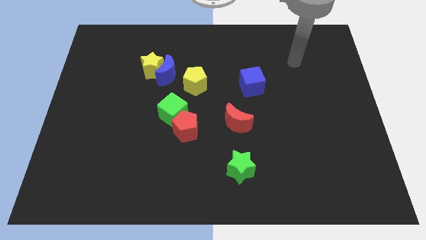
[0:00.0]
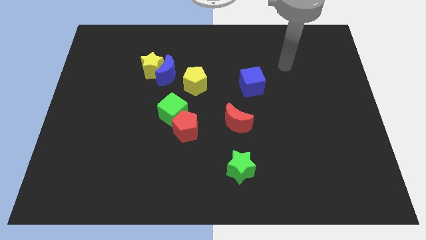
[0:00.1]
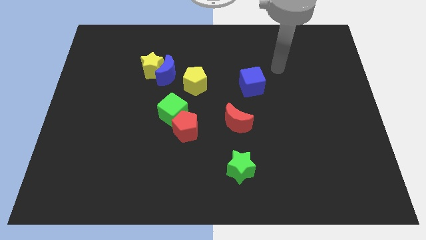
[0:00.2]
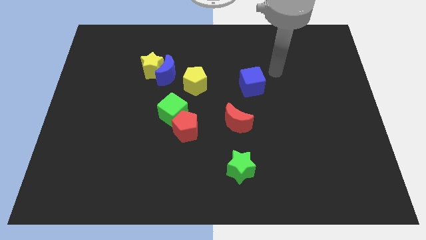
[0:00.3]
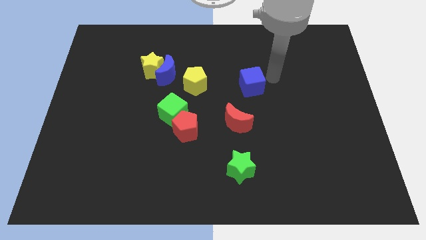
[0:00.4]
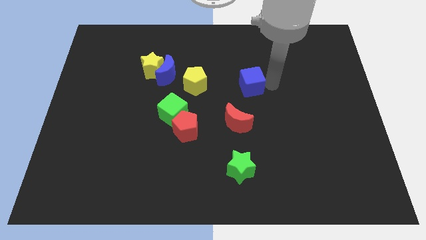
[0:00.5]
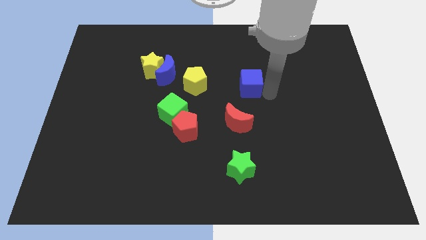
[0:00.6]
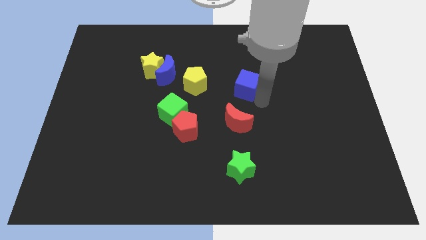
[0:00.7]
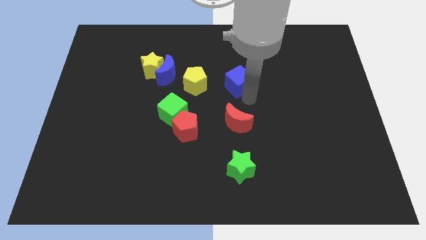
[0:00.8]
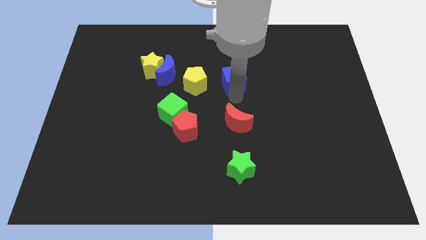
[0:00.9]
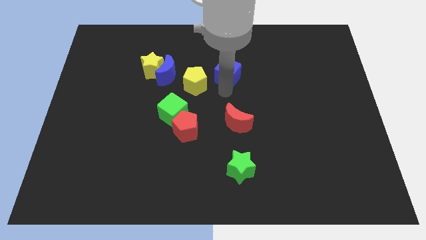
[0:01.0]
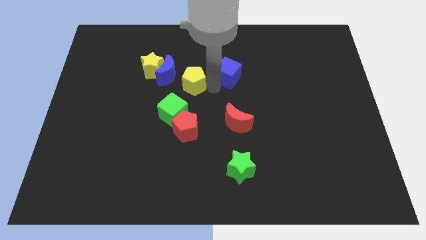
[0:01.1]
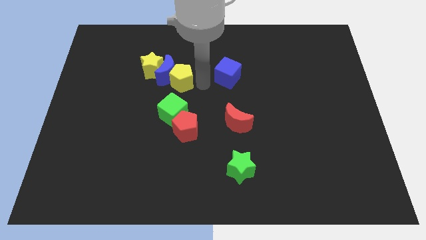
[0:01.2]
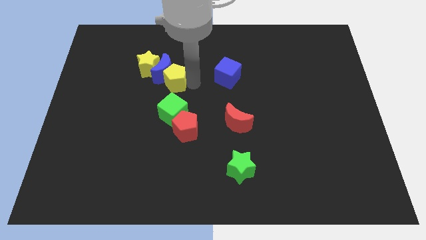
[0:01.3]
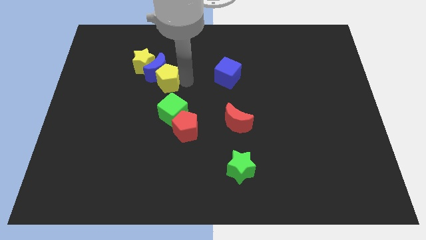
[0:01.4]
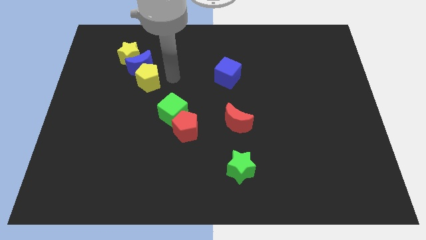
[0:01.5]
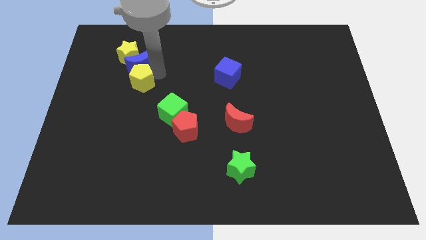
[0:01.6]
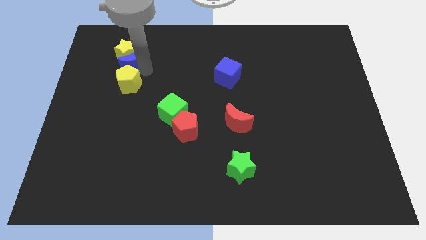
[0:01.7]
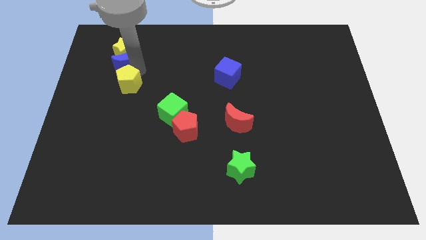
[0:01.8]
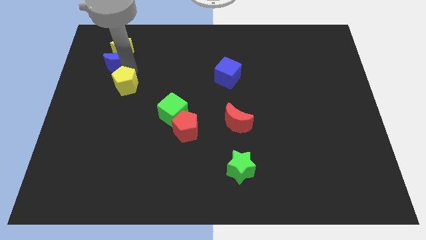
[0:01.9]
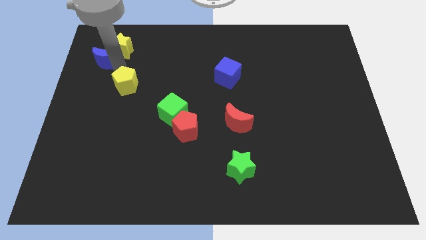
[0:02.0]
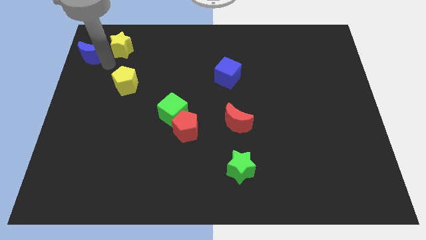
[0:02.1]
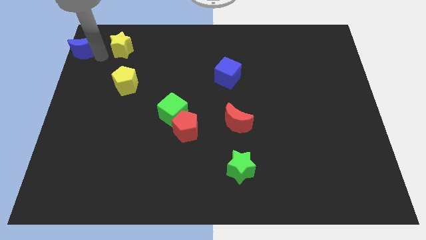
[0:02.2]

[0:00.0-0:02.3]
separate the yellow star from the blue moon

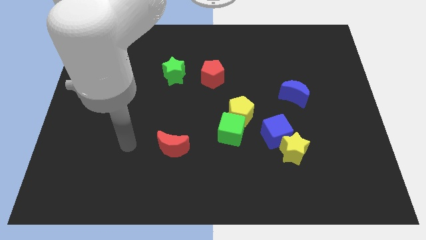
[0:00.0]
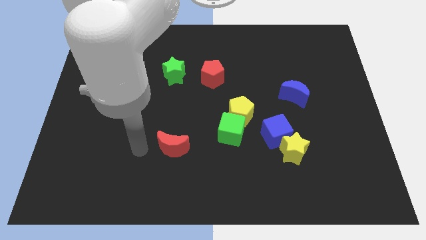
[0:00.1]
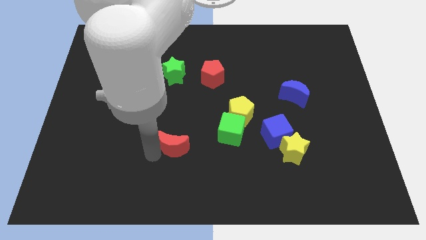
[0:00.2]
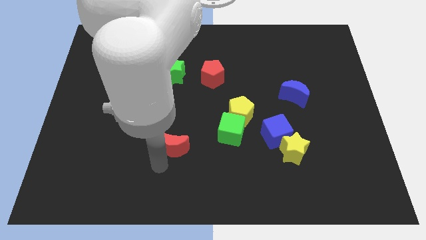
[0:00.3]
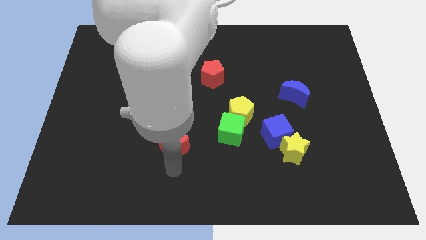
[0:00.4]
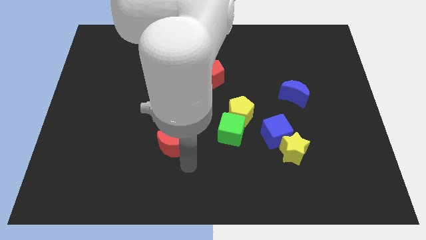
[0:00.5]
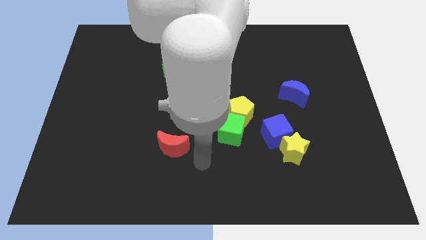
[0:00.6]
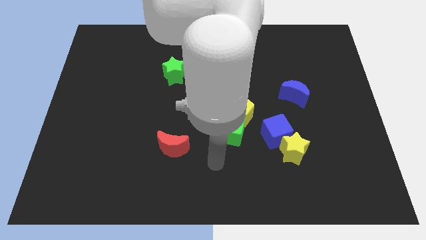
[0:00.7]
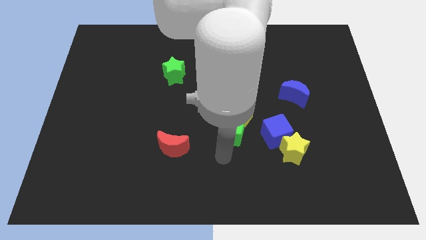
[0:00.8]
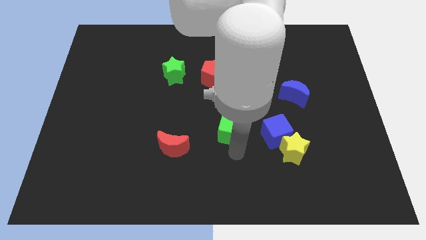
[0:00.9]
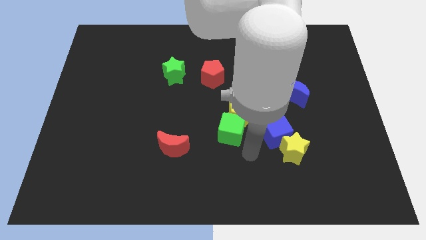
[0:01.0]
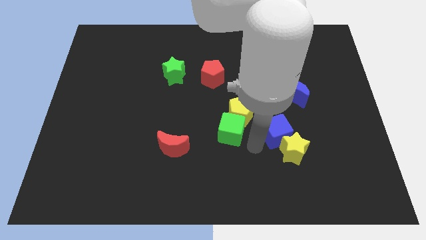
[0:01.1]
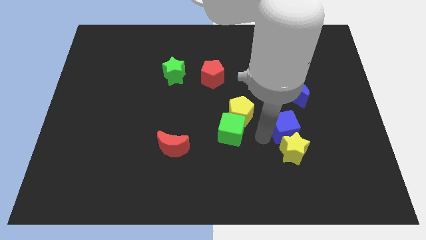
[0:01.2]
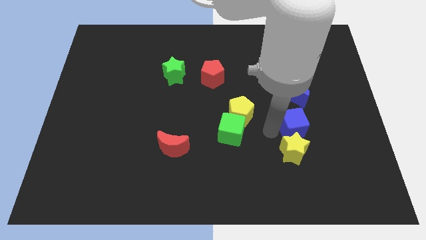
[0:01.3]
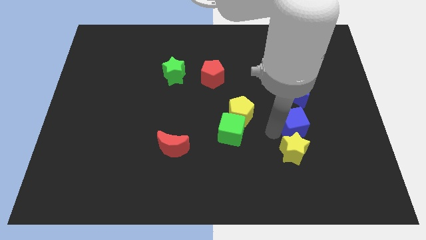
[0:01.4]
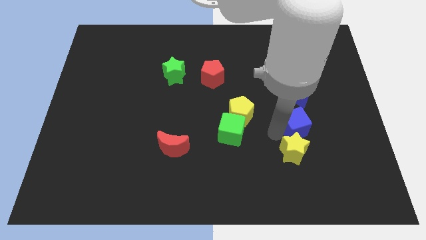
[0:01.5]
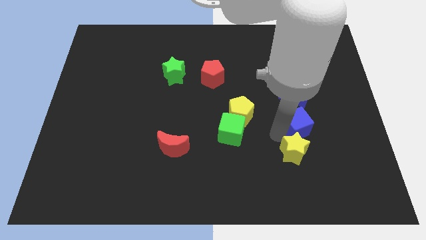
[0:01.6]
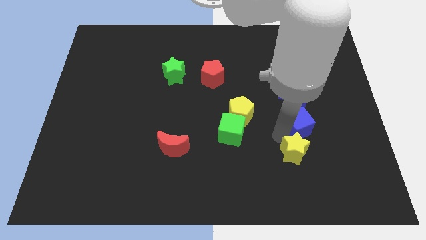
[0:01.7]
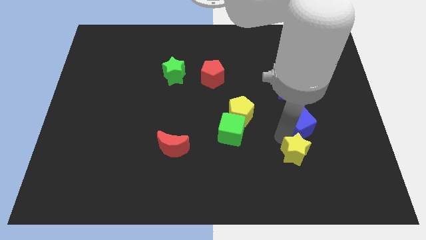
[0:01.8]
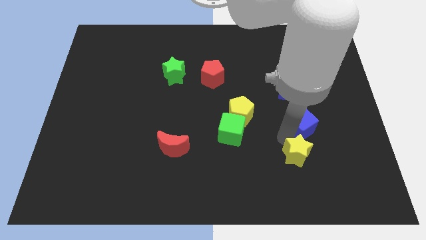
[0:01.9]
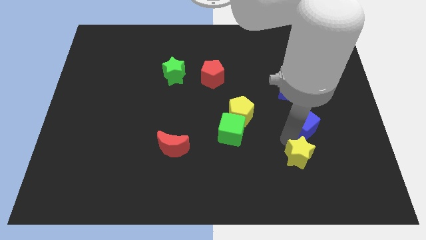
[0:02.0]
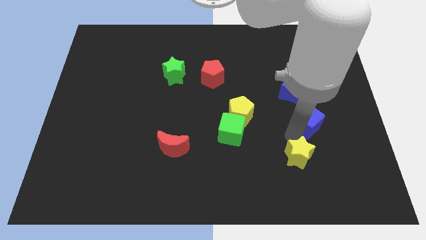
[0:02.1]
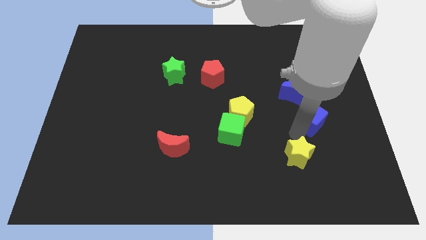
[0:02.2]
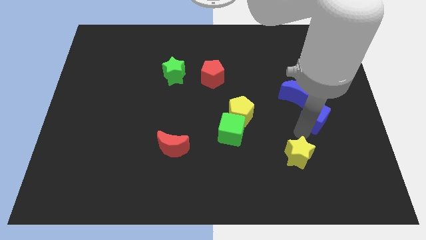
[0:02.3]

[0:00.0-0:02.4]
pull the yellow star apart from the blue cube

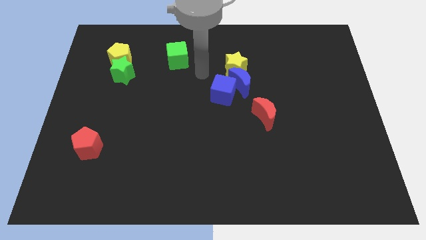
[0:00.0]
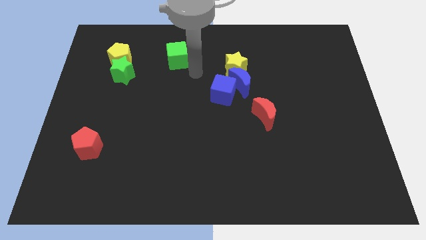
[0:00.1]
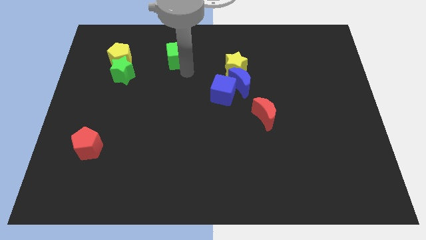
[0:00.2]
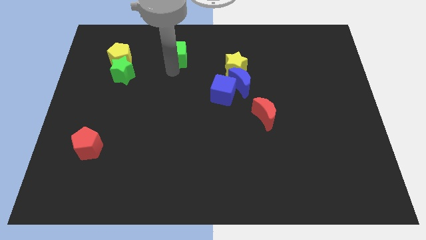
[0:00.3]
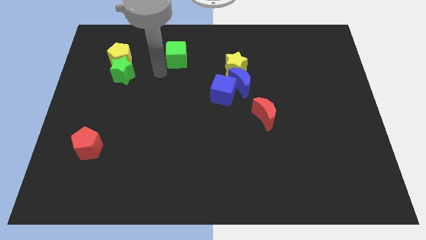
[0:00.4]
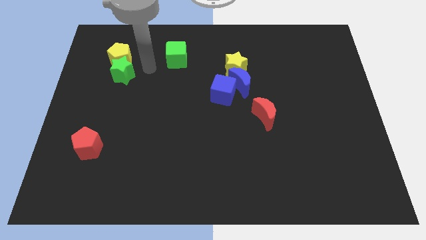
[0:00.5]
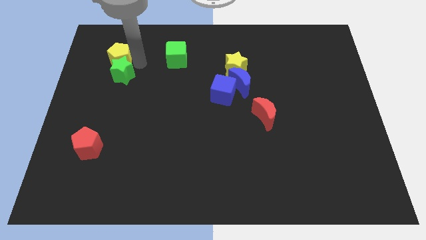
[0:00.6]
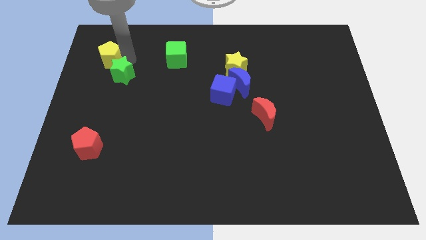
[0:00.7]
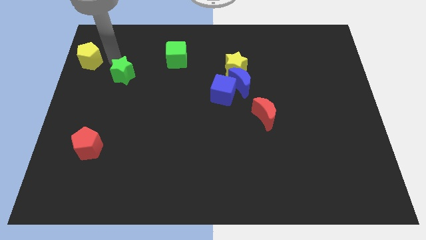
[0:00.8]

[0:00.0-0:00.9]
pull the green star apart from the yellow pentagon

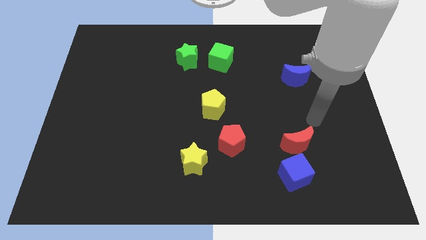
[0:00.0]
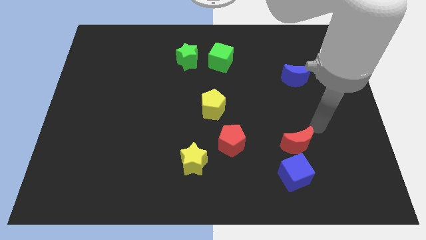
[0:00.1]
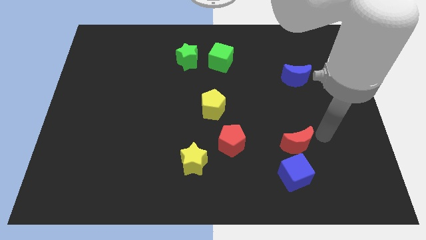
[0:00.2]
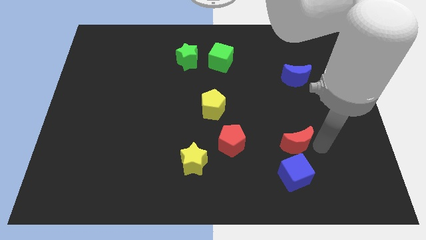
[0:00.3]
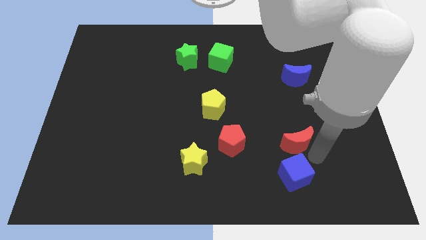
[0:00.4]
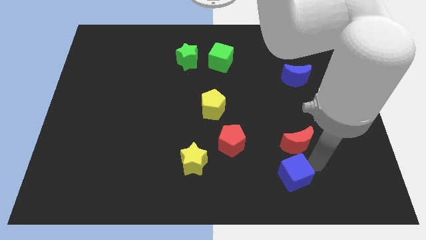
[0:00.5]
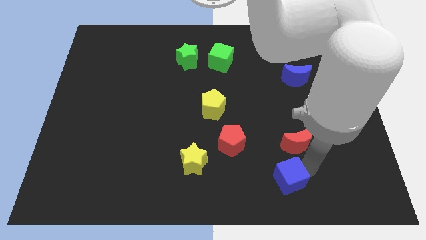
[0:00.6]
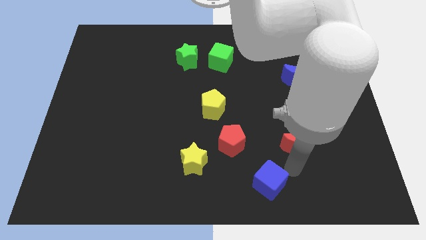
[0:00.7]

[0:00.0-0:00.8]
pull the red moon apart from the blue cube

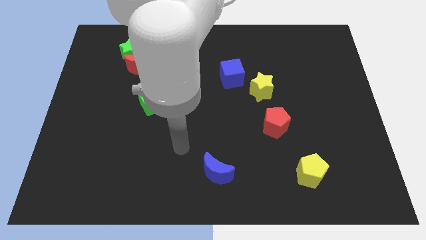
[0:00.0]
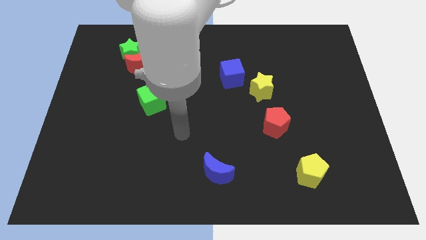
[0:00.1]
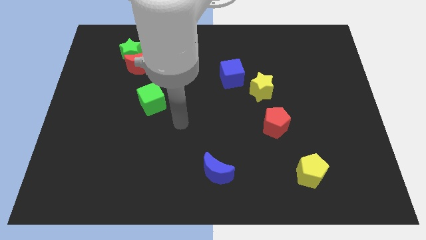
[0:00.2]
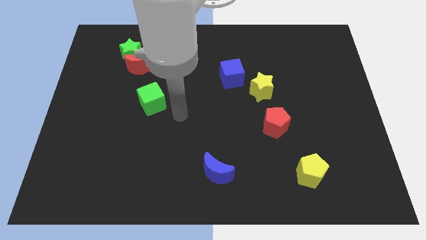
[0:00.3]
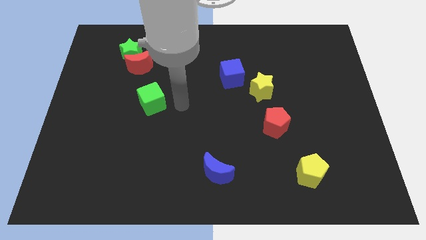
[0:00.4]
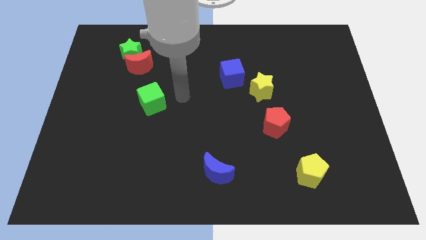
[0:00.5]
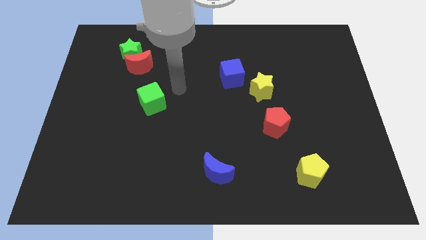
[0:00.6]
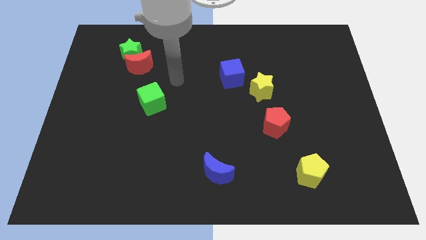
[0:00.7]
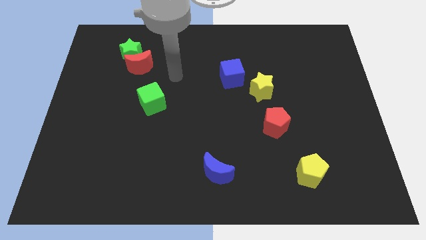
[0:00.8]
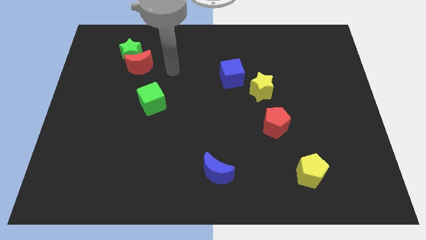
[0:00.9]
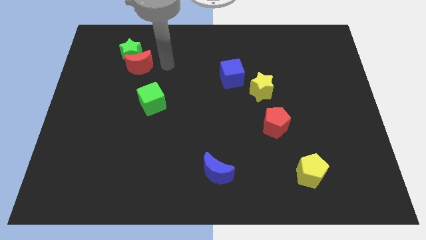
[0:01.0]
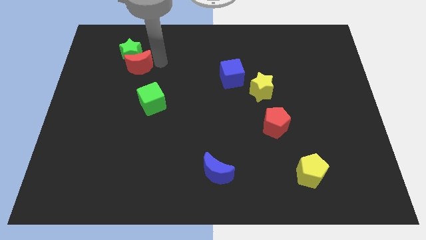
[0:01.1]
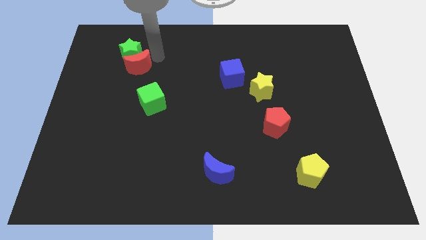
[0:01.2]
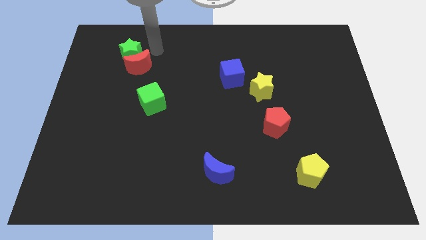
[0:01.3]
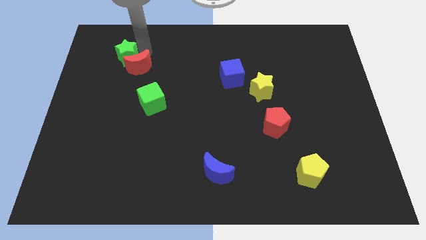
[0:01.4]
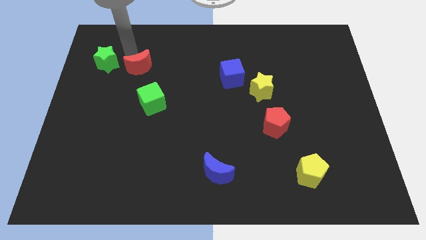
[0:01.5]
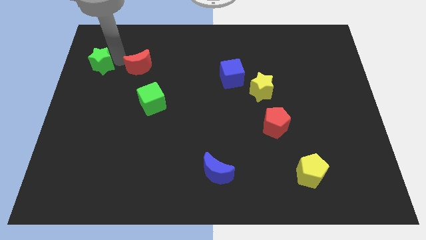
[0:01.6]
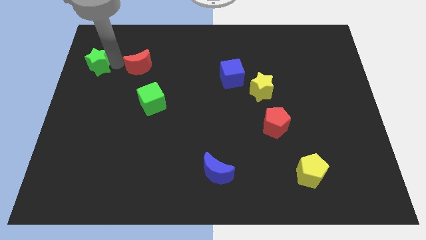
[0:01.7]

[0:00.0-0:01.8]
separate the red moon from the green star

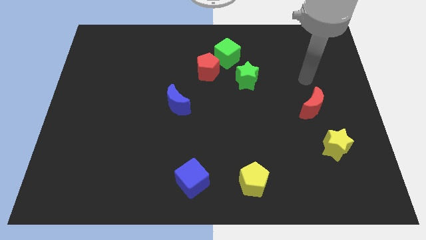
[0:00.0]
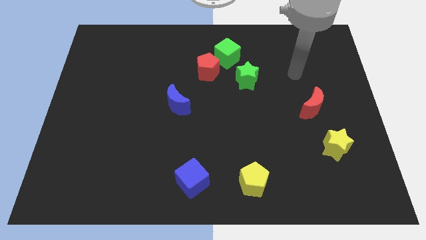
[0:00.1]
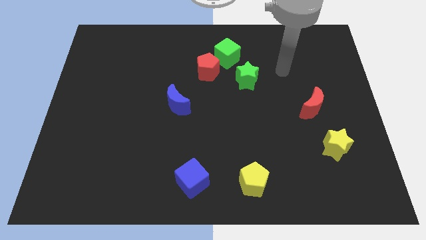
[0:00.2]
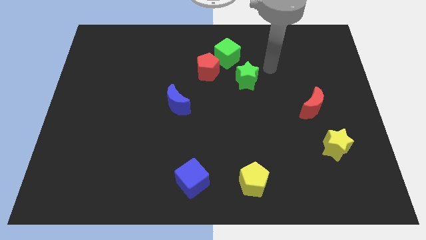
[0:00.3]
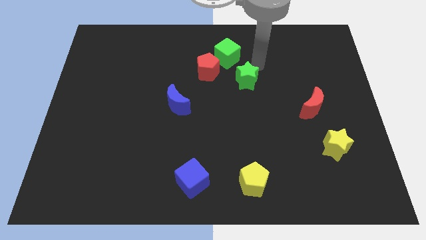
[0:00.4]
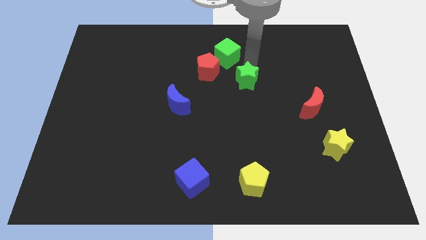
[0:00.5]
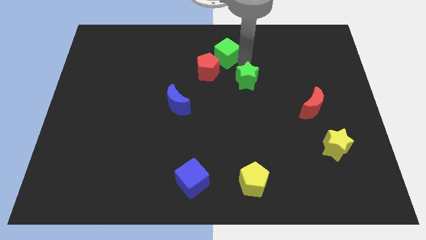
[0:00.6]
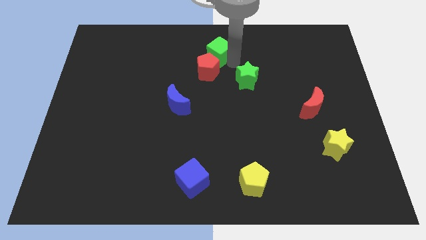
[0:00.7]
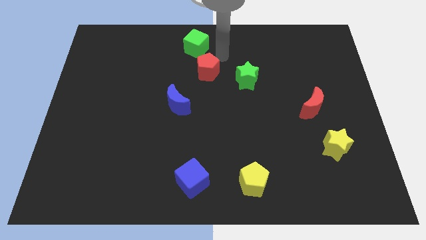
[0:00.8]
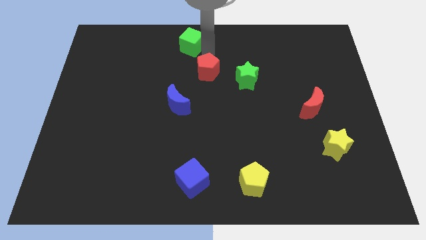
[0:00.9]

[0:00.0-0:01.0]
pull the red pentagon apart from the green cube
